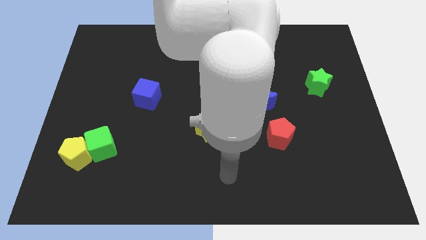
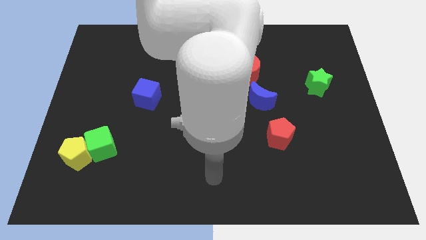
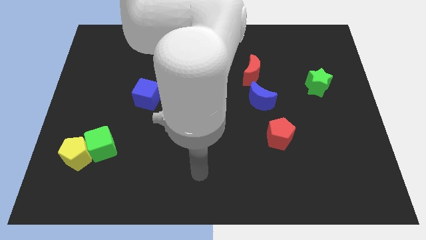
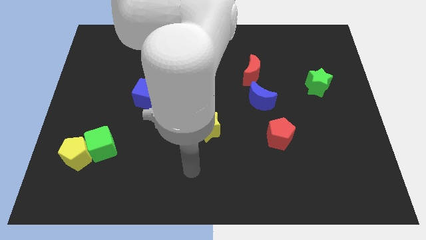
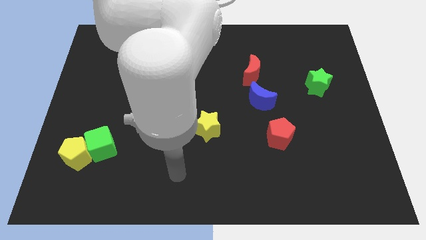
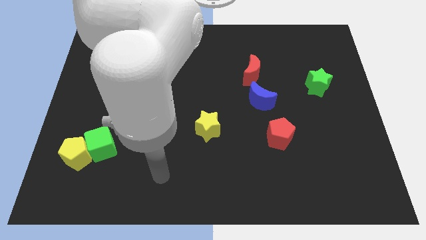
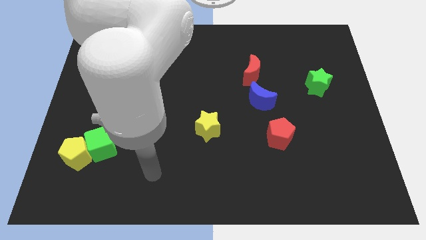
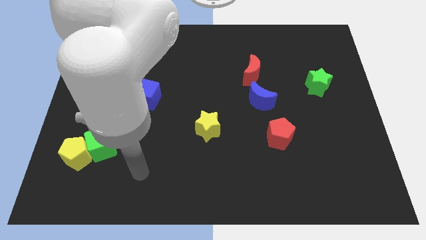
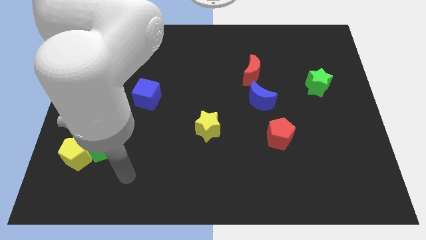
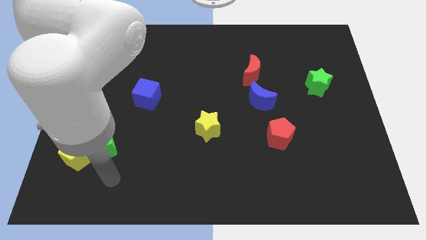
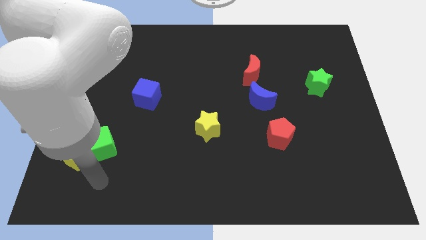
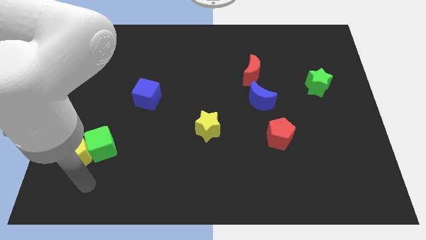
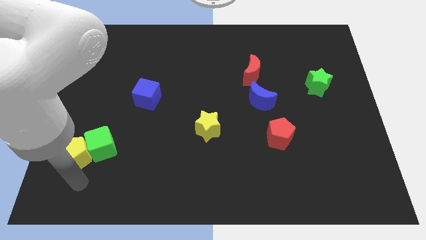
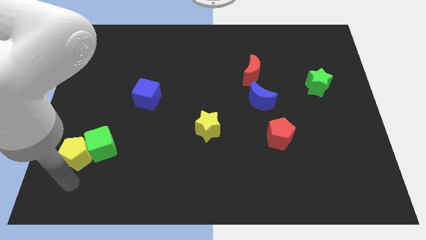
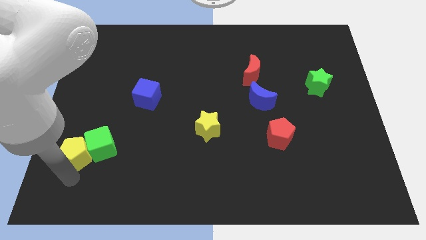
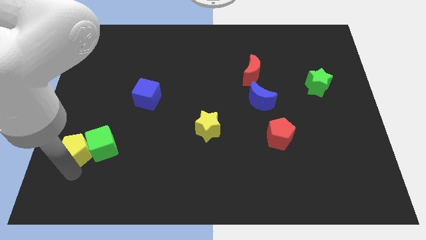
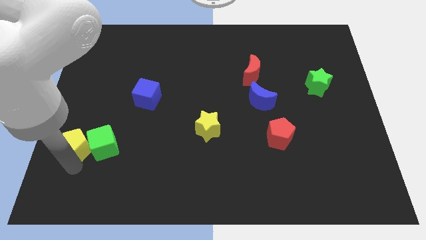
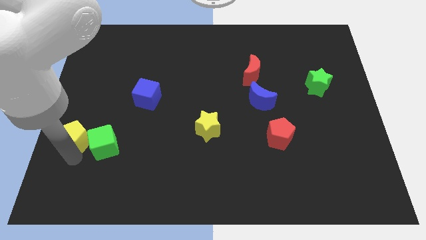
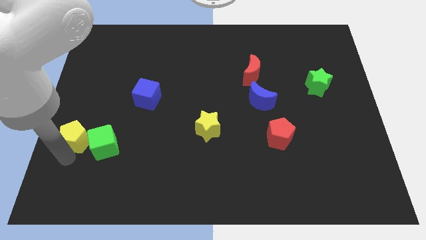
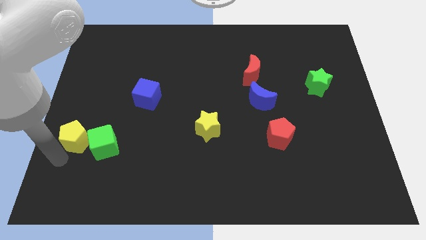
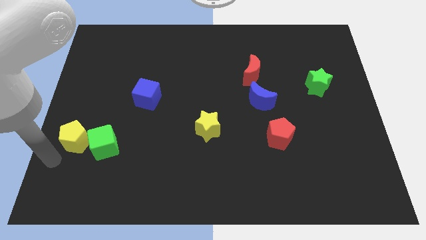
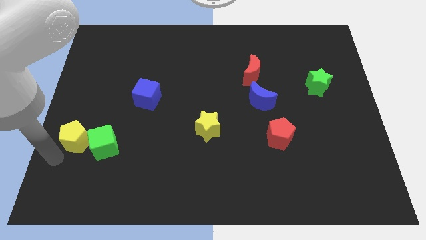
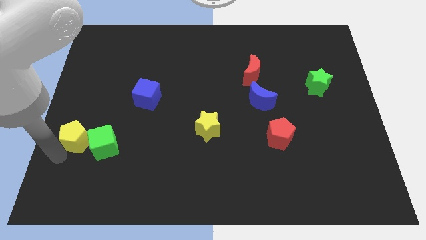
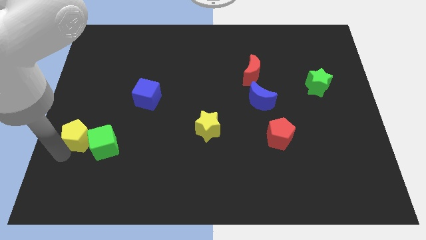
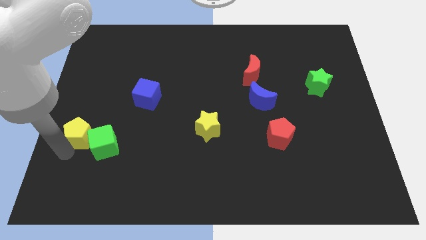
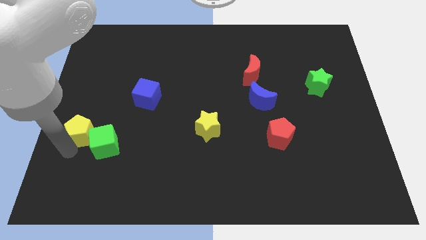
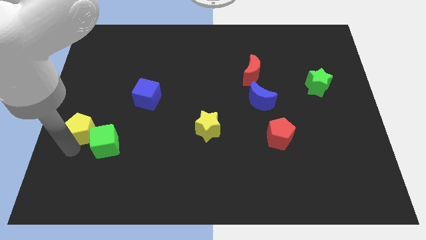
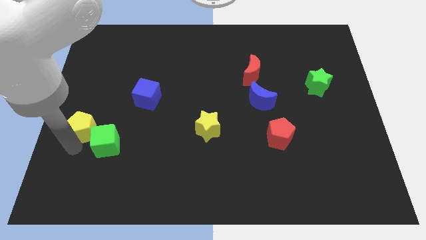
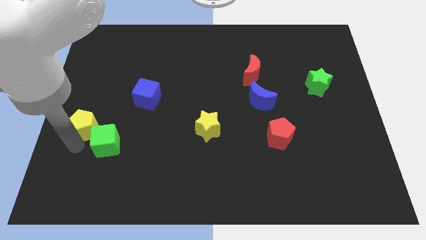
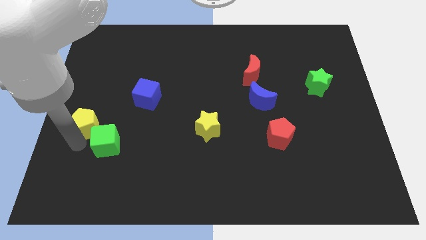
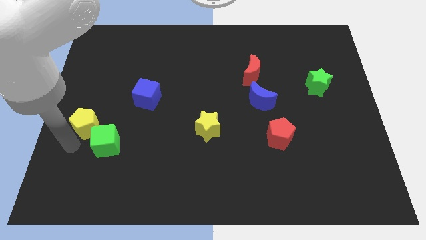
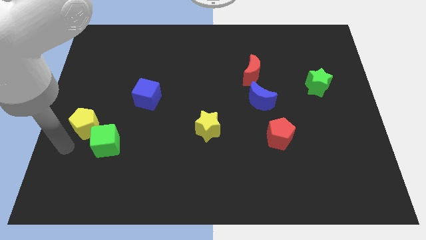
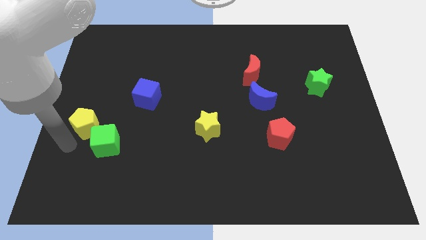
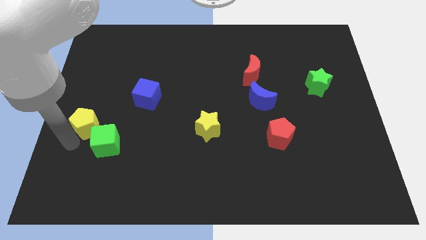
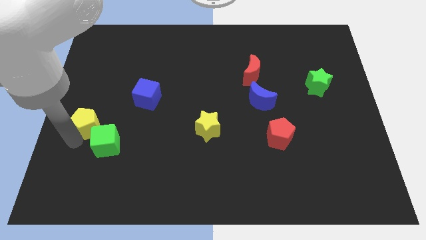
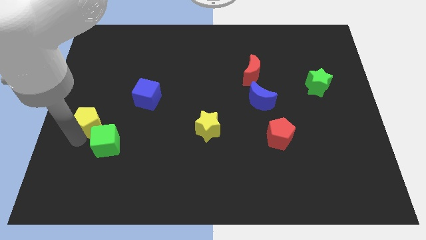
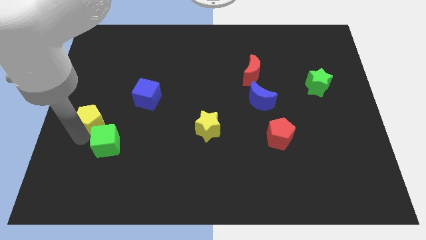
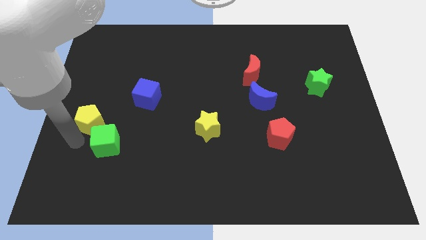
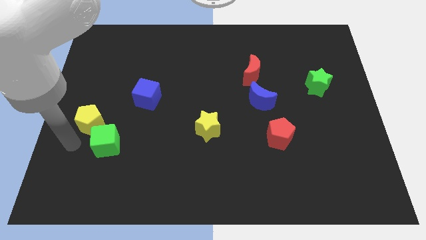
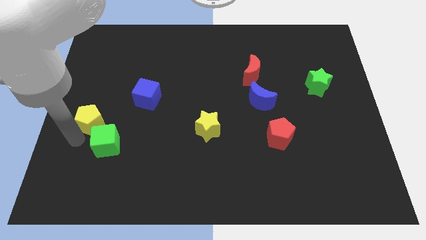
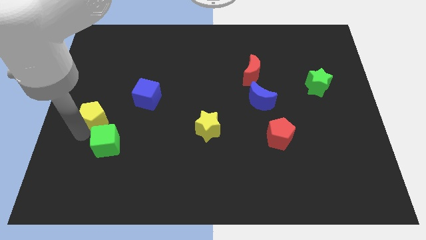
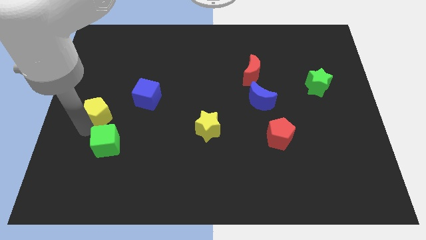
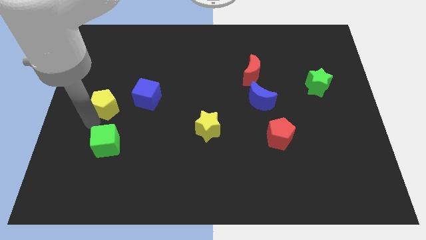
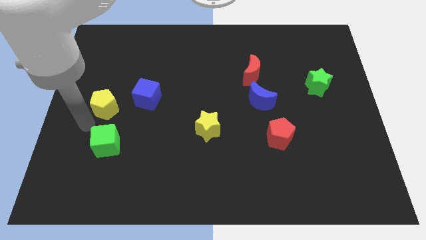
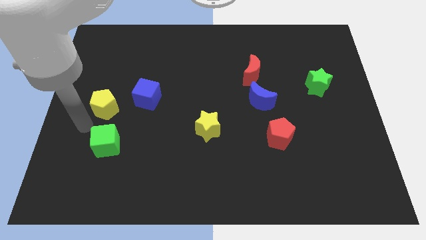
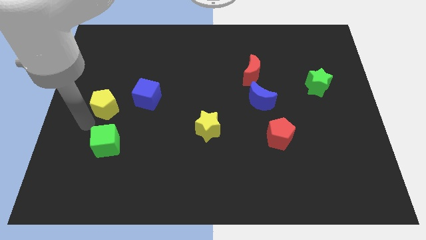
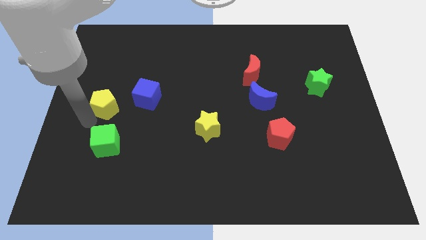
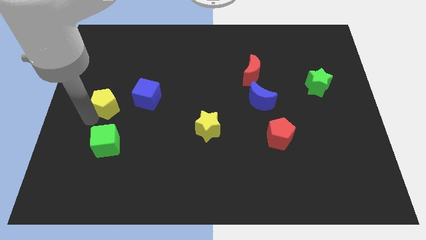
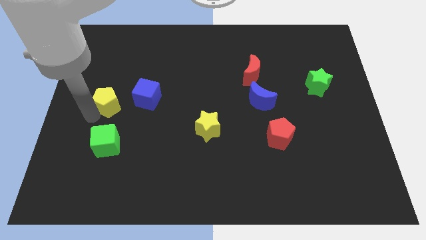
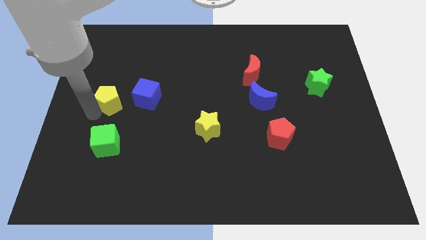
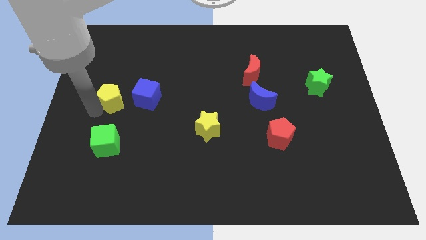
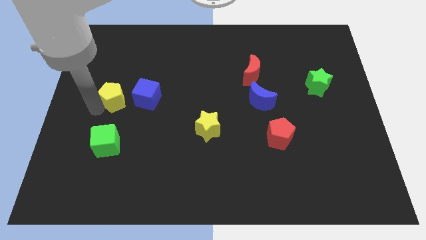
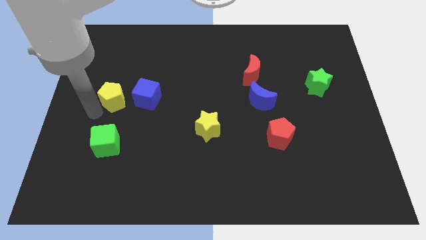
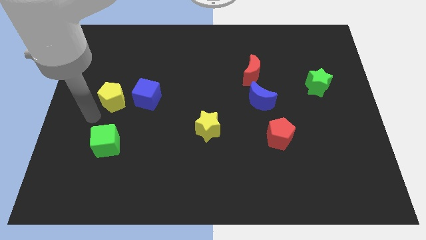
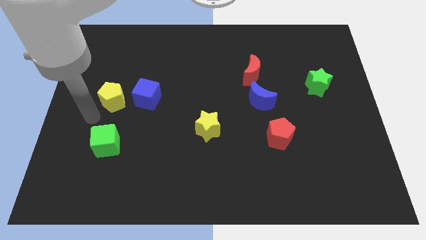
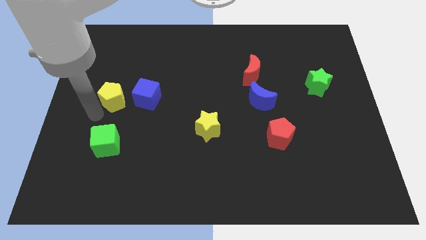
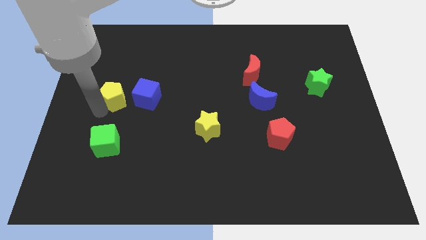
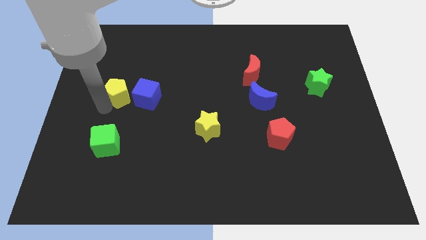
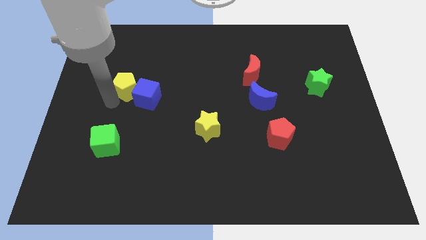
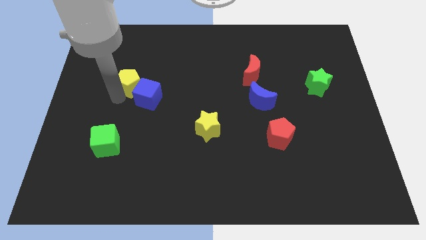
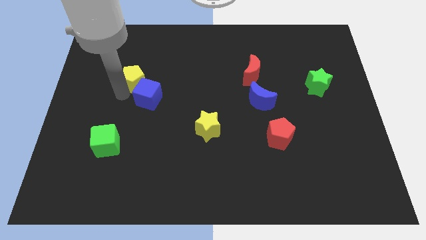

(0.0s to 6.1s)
put the yellow pentagon to the top of the blue cube

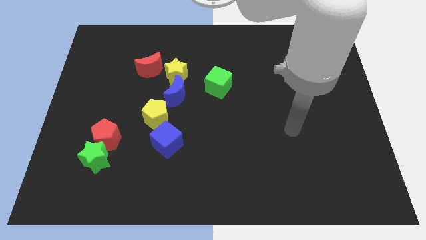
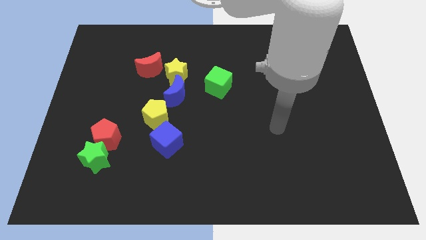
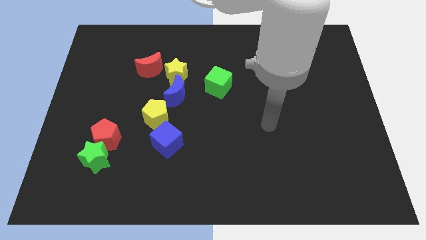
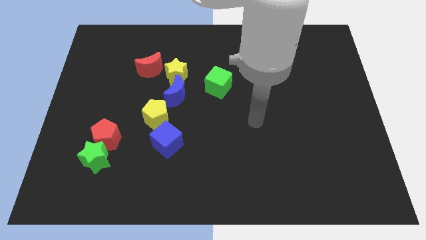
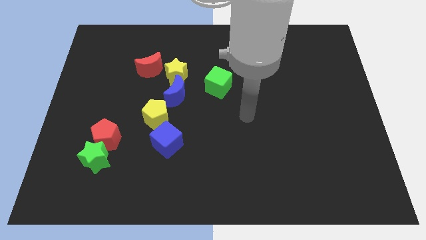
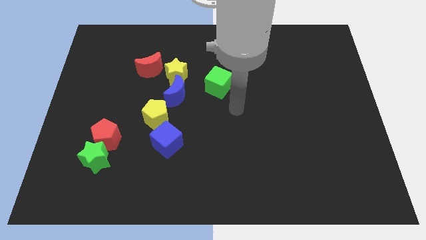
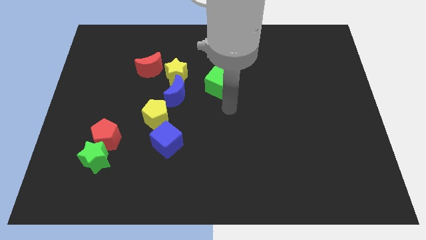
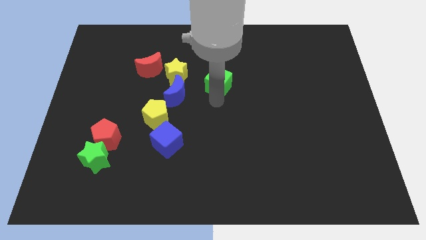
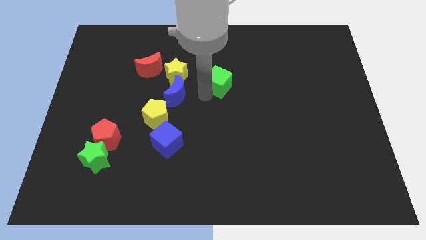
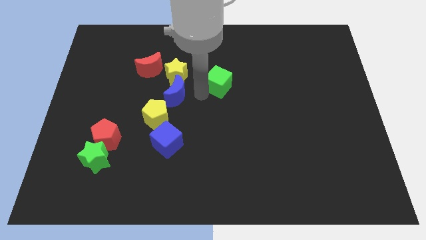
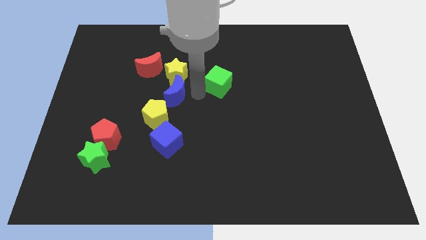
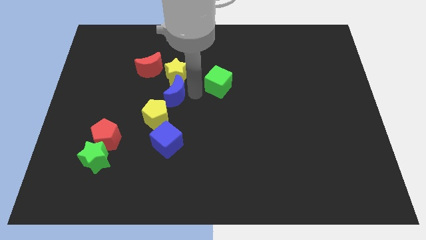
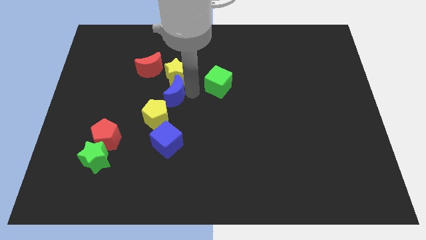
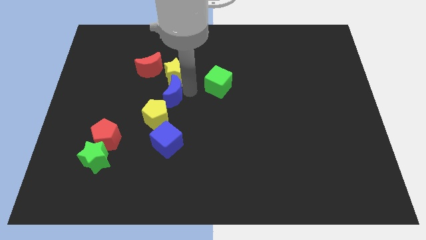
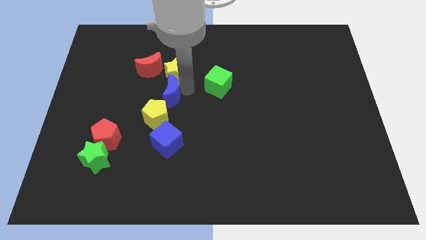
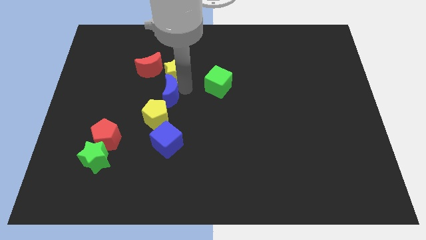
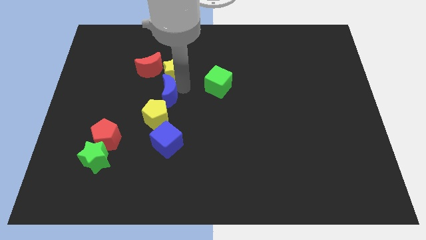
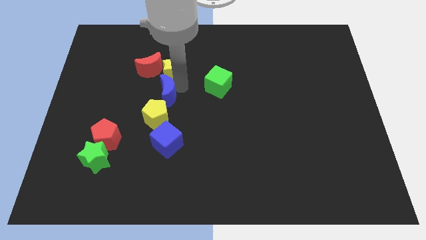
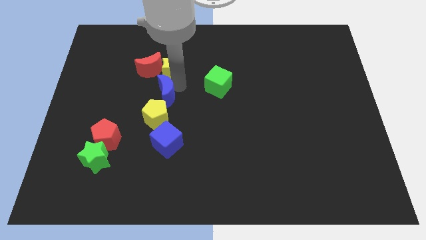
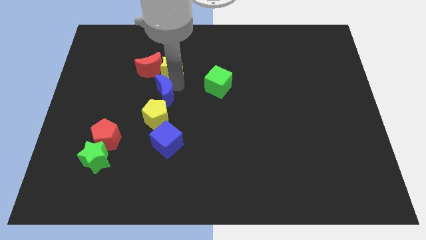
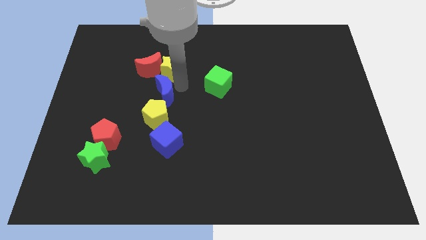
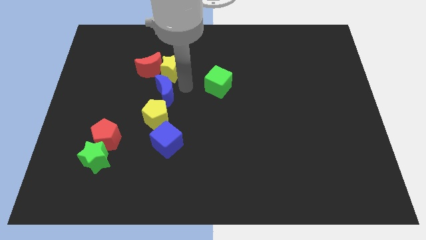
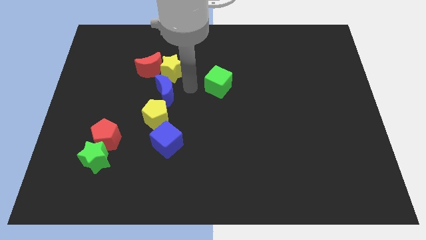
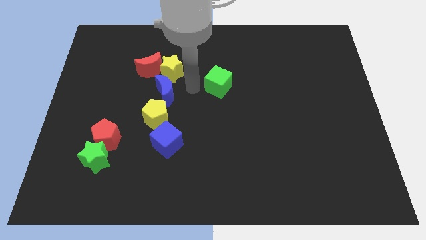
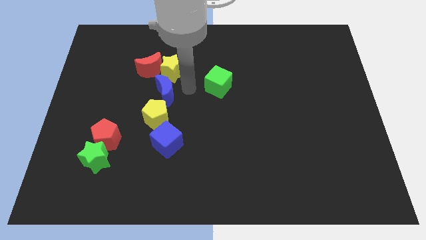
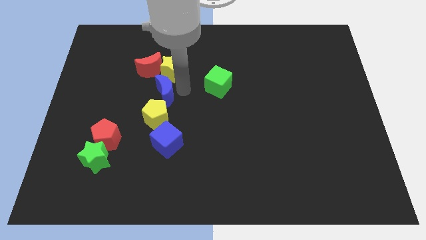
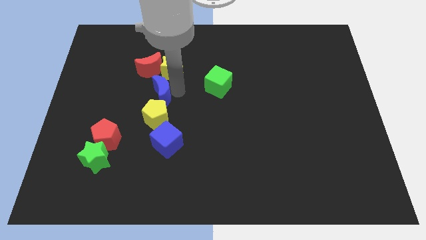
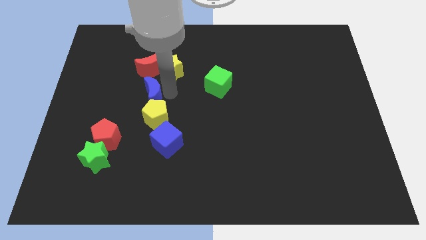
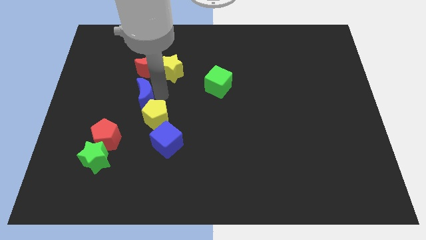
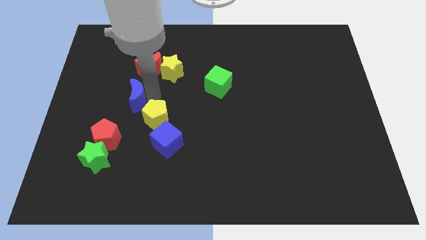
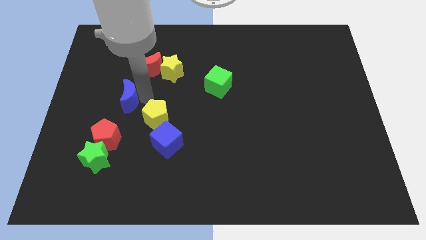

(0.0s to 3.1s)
put the blue moon to the top of the red pentagon
